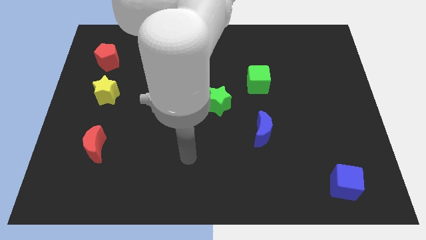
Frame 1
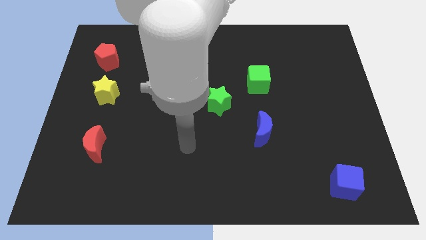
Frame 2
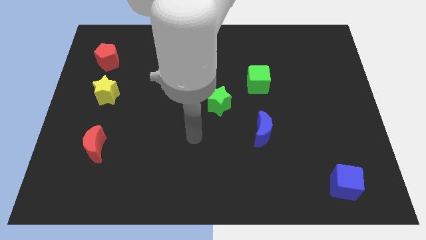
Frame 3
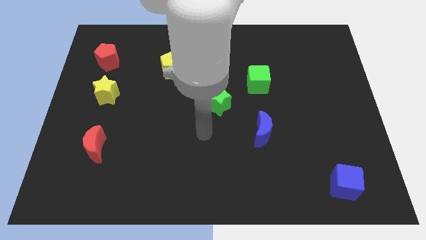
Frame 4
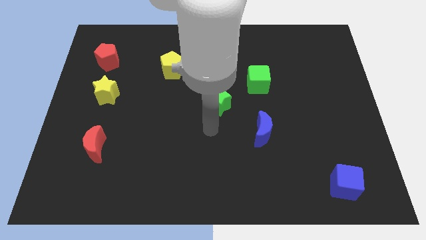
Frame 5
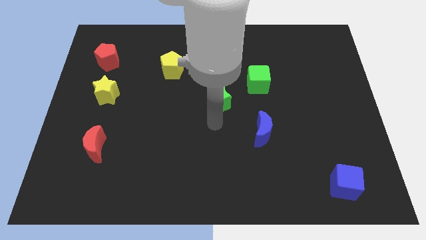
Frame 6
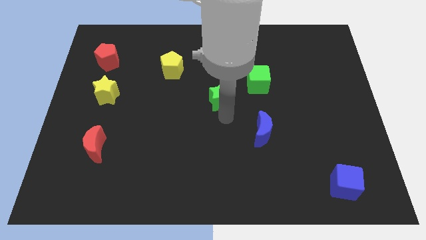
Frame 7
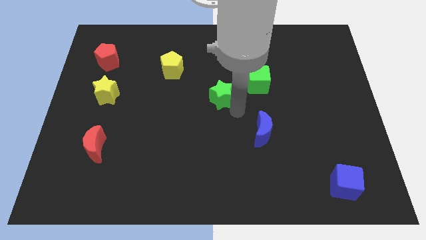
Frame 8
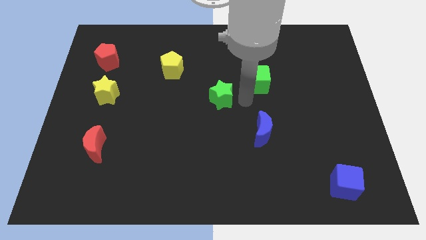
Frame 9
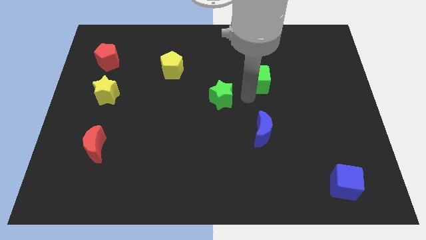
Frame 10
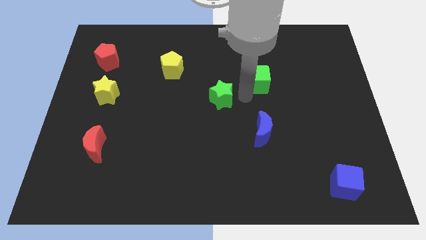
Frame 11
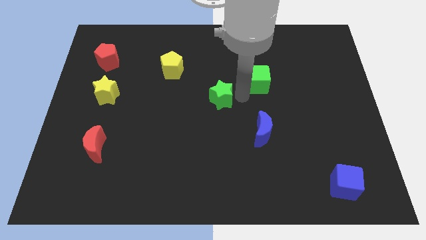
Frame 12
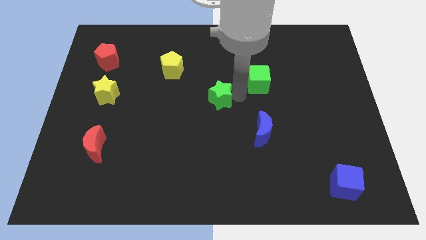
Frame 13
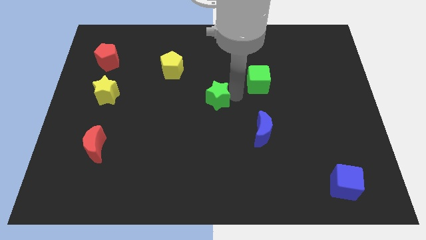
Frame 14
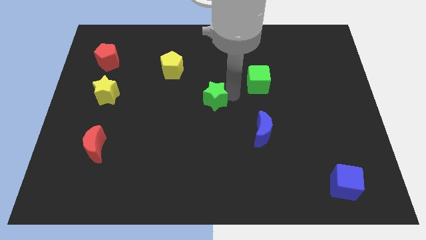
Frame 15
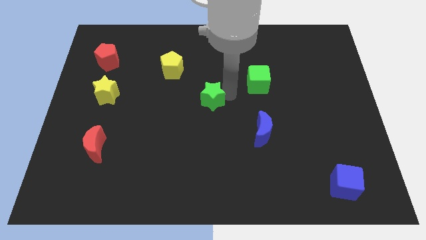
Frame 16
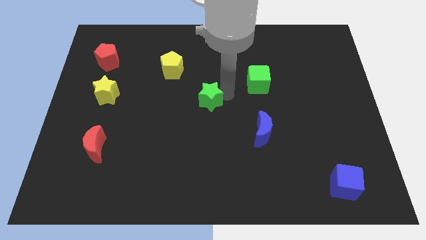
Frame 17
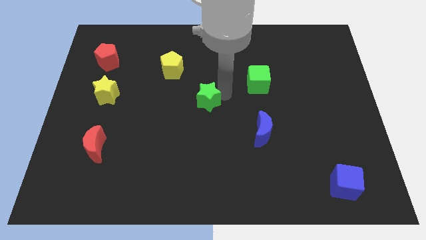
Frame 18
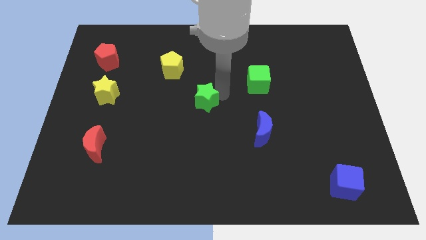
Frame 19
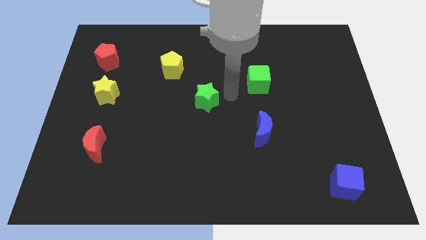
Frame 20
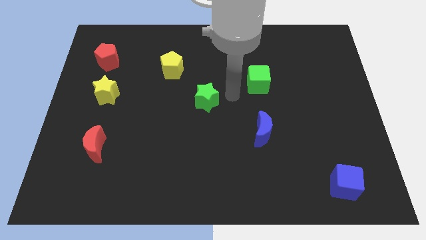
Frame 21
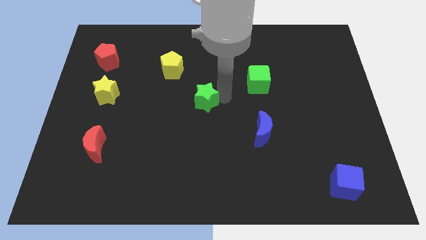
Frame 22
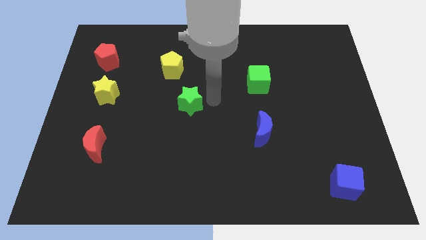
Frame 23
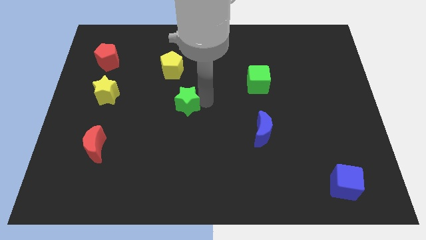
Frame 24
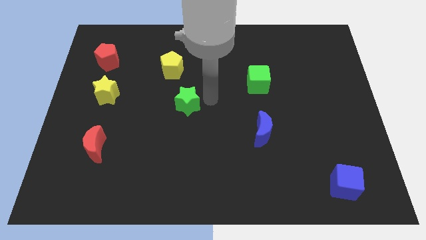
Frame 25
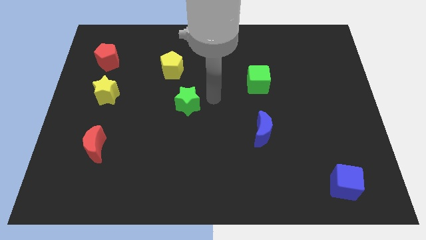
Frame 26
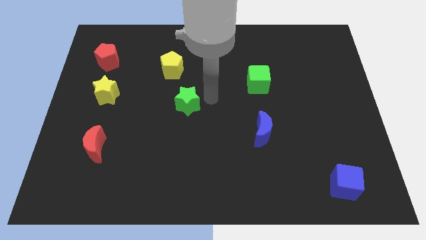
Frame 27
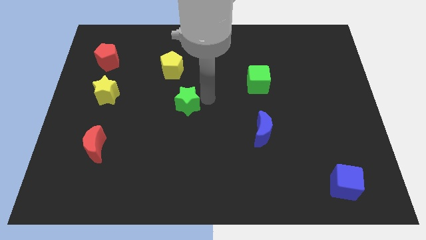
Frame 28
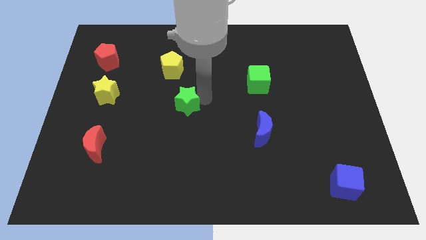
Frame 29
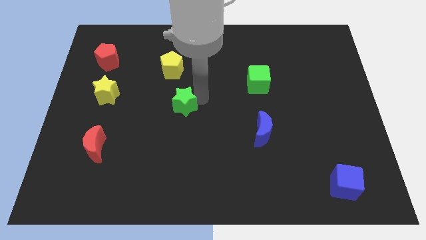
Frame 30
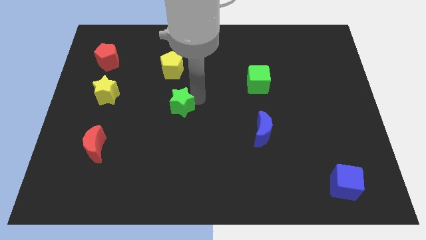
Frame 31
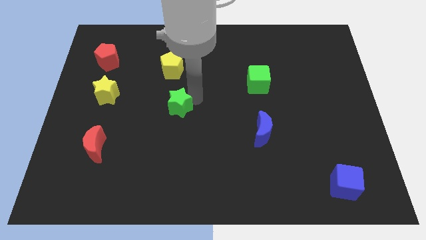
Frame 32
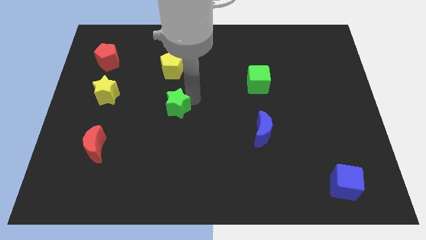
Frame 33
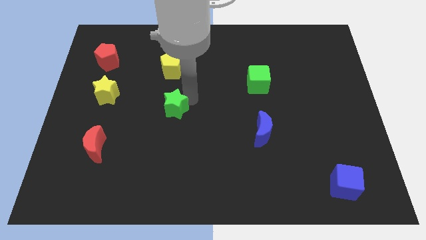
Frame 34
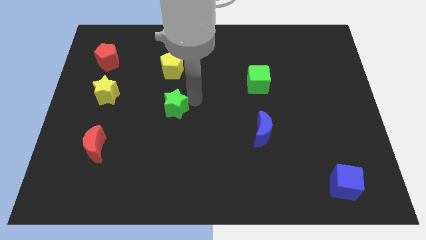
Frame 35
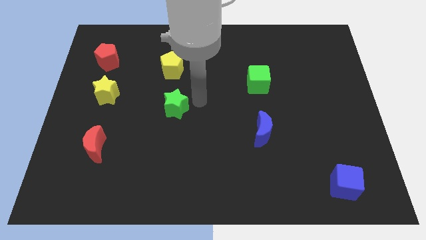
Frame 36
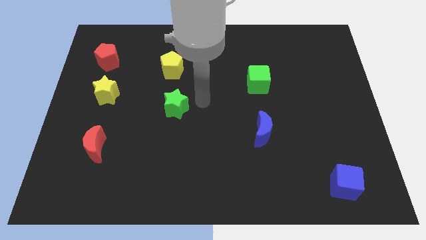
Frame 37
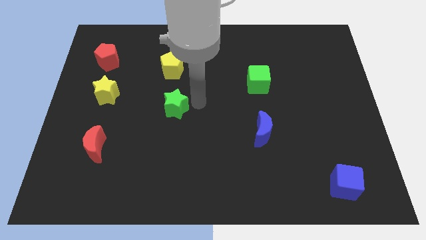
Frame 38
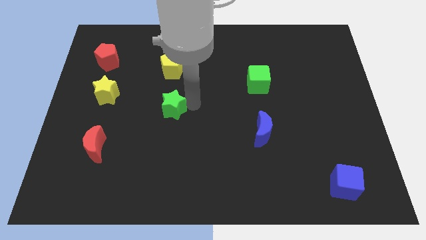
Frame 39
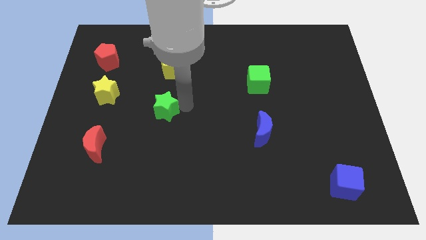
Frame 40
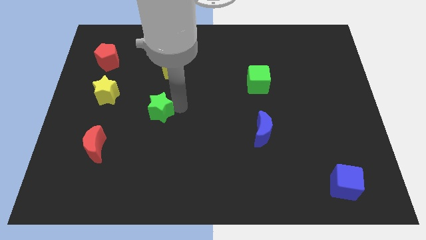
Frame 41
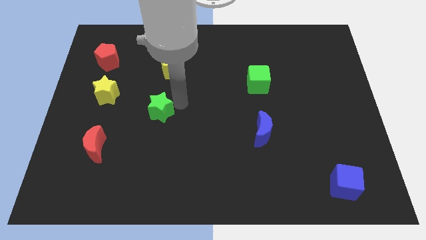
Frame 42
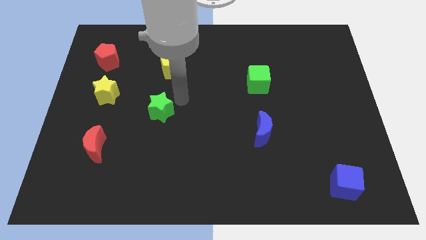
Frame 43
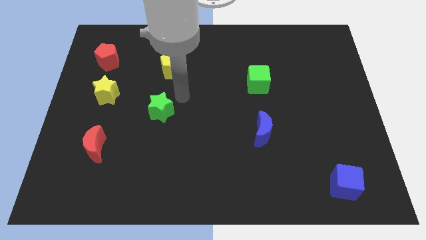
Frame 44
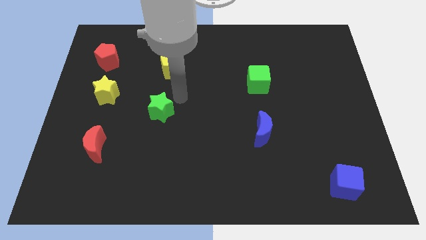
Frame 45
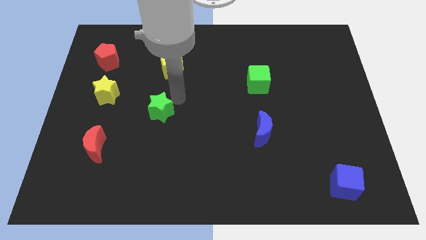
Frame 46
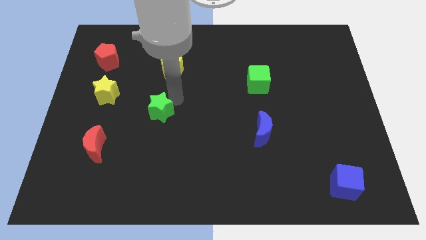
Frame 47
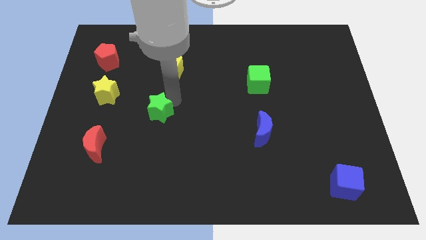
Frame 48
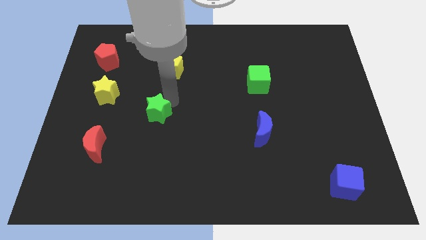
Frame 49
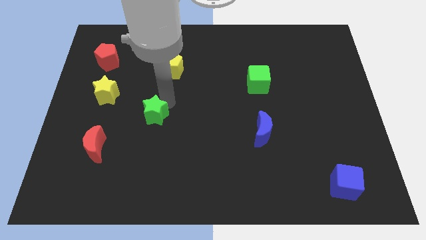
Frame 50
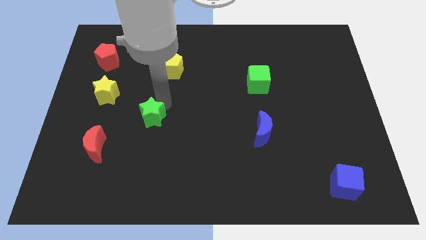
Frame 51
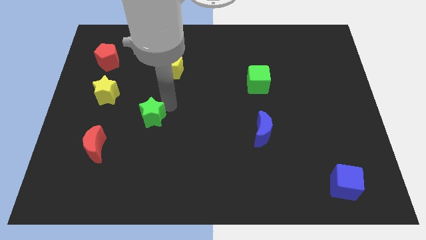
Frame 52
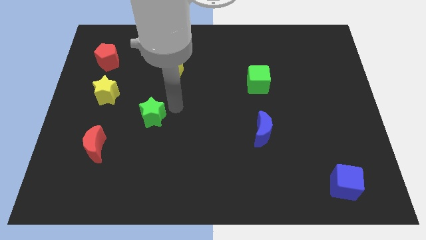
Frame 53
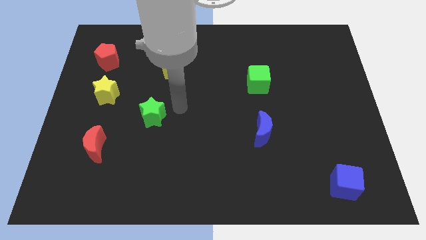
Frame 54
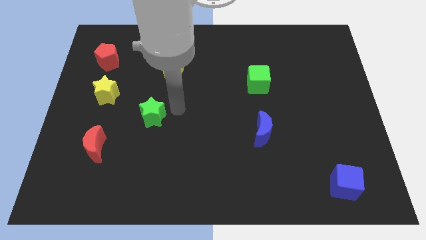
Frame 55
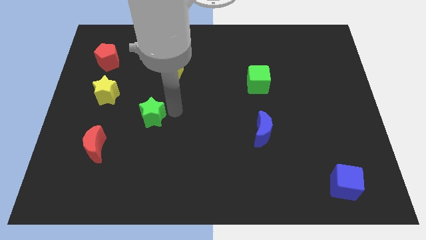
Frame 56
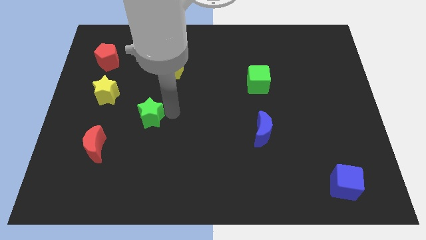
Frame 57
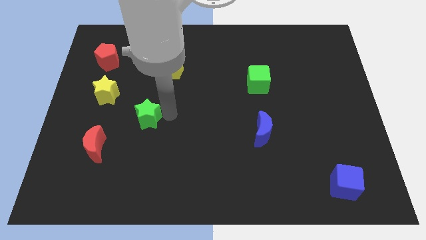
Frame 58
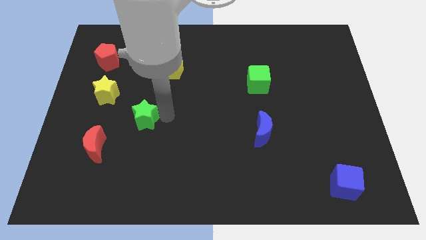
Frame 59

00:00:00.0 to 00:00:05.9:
push the green star to the top right side of the red moon

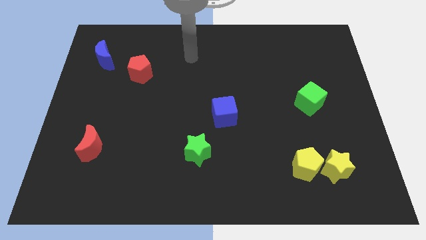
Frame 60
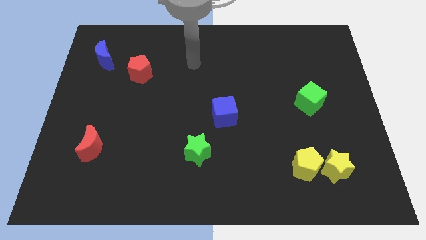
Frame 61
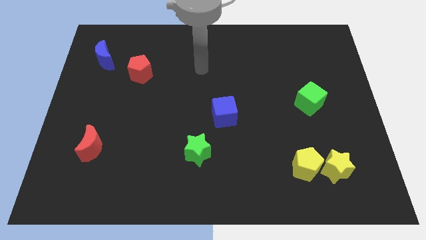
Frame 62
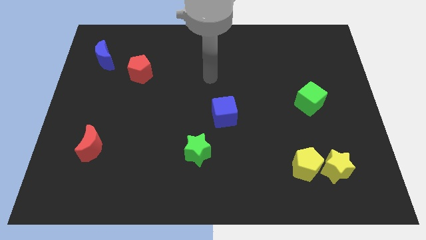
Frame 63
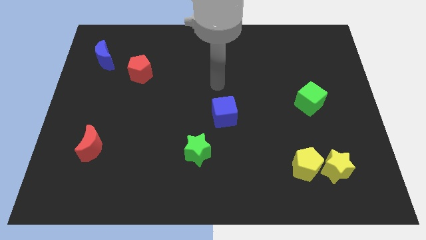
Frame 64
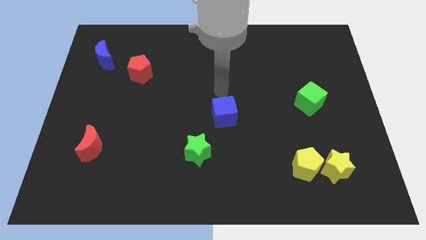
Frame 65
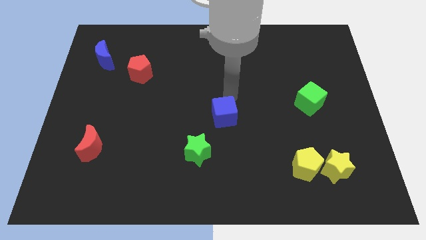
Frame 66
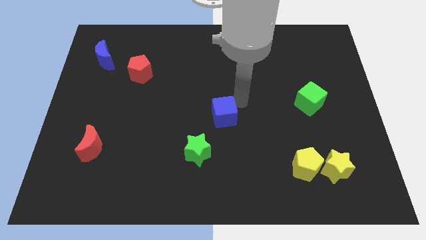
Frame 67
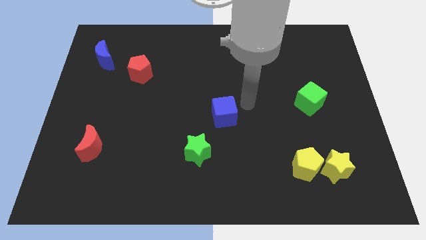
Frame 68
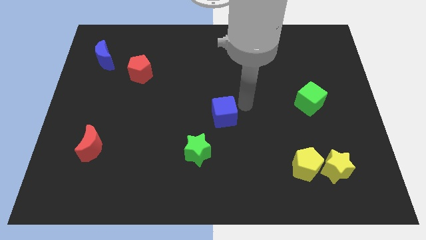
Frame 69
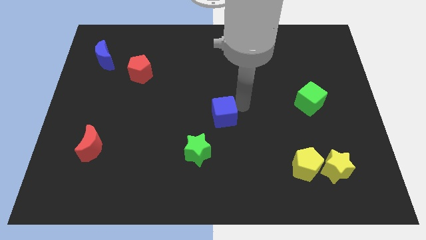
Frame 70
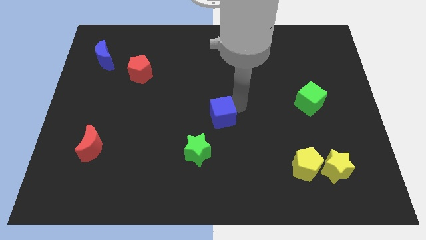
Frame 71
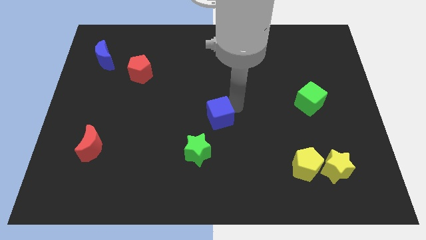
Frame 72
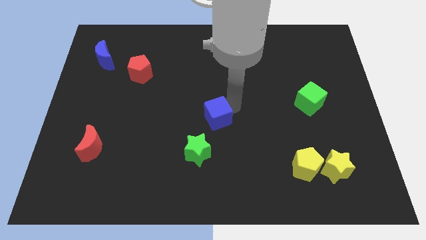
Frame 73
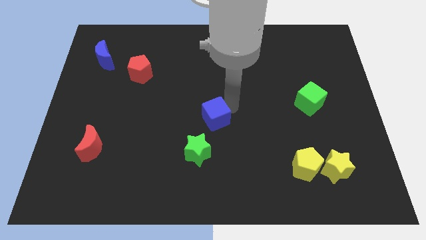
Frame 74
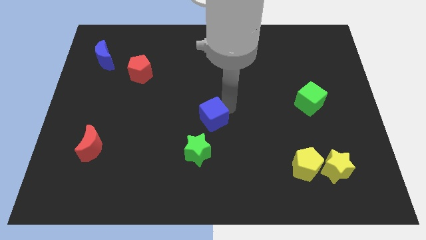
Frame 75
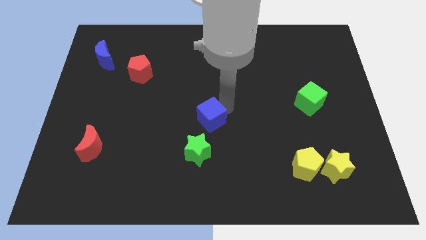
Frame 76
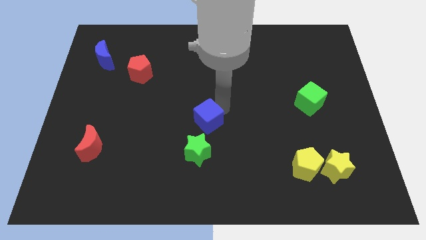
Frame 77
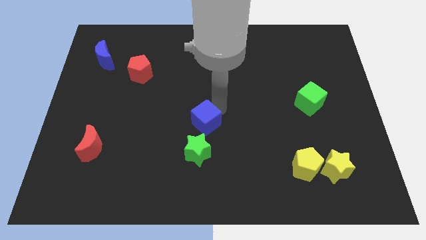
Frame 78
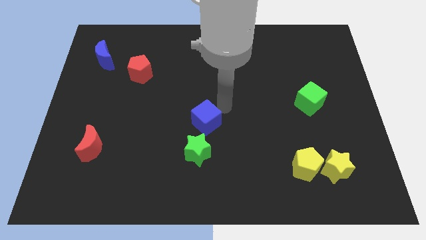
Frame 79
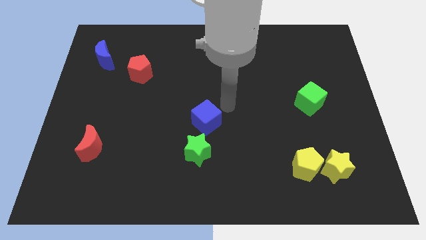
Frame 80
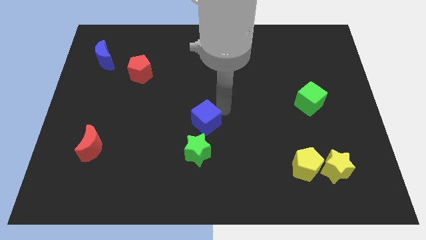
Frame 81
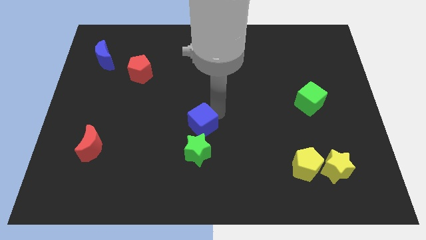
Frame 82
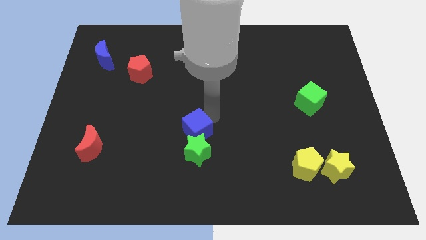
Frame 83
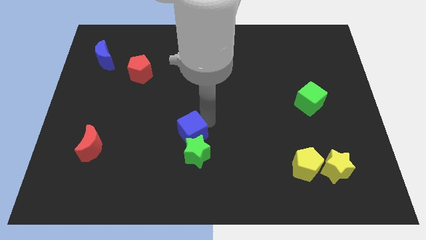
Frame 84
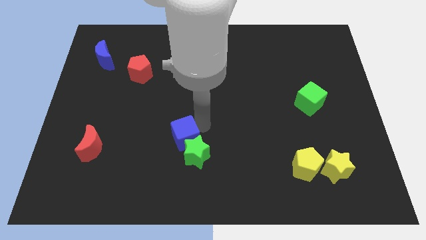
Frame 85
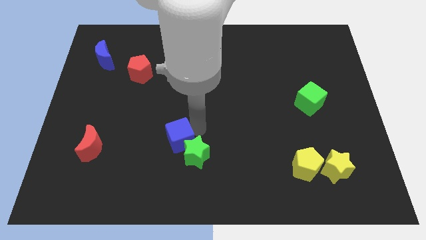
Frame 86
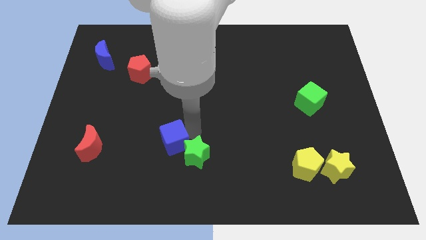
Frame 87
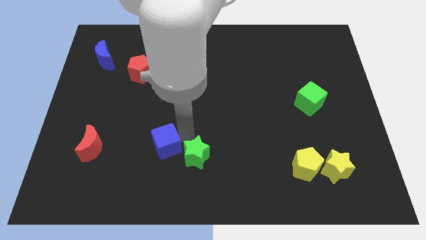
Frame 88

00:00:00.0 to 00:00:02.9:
slide the blue cube right of the red moon
